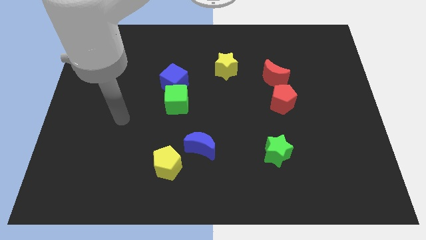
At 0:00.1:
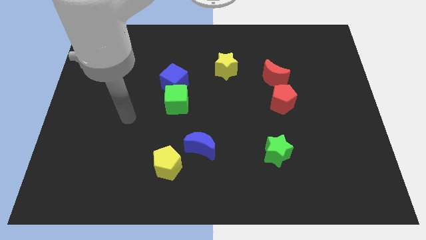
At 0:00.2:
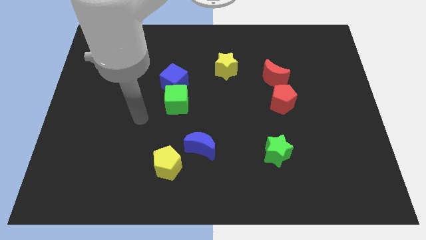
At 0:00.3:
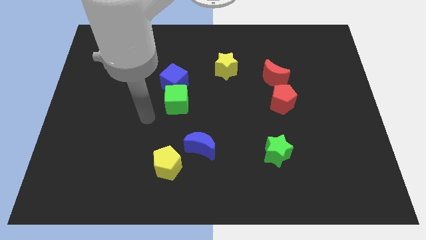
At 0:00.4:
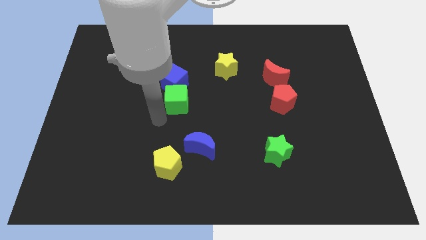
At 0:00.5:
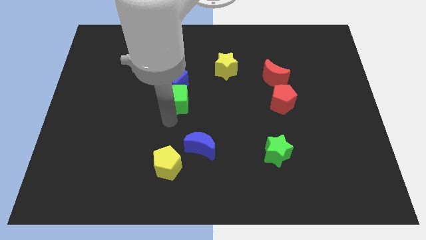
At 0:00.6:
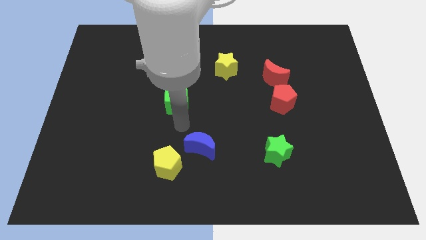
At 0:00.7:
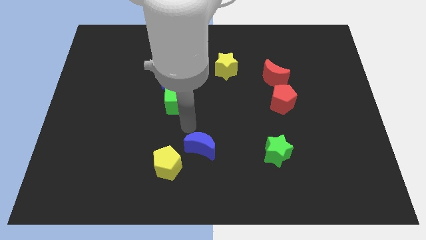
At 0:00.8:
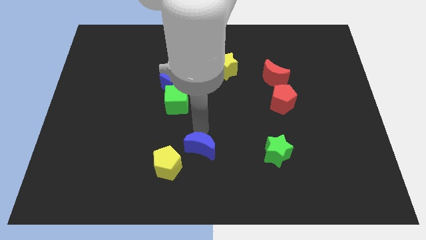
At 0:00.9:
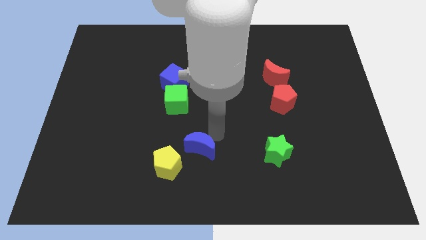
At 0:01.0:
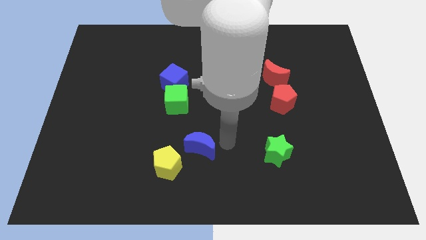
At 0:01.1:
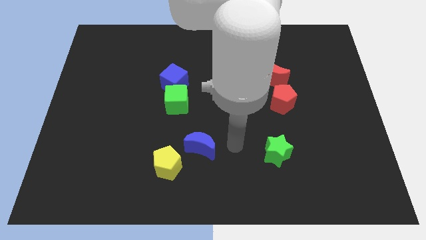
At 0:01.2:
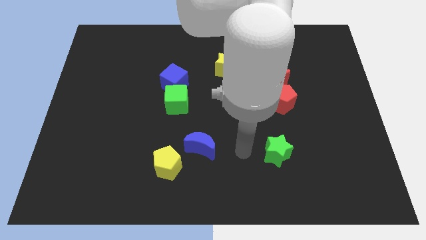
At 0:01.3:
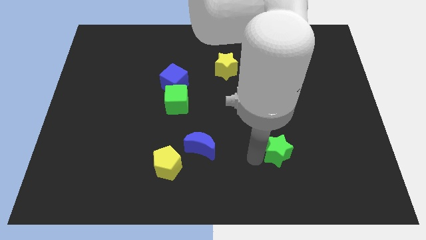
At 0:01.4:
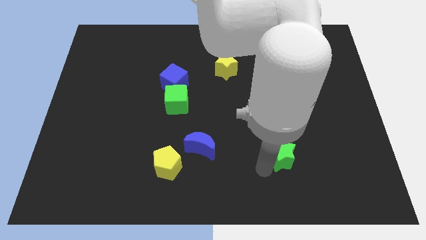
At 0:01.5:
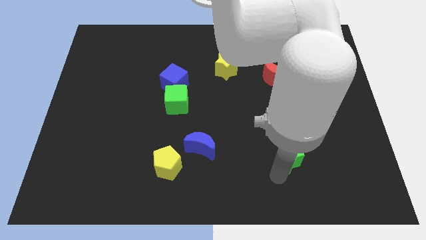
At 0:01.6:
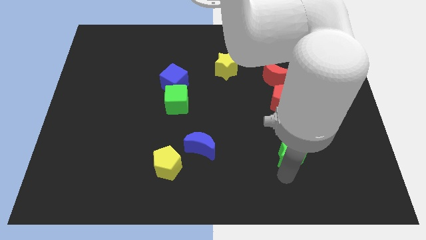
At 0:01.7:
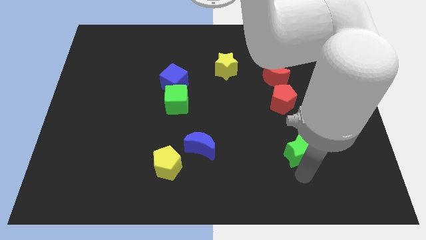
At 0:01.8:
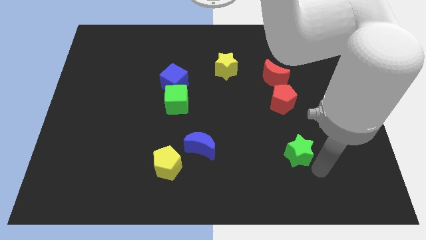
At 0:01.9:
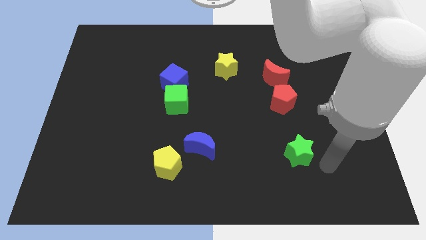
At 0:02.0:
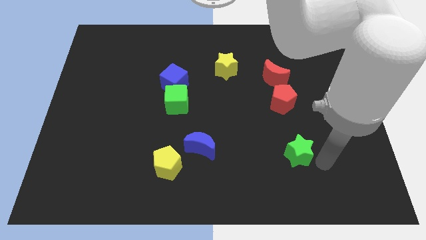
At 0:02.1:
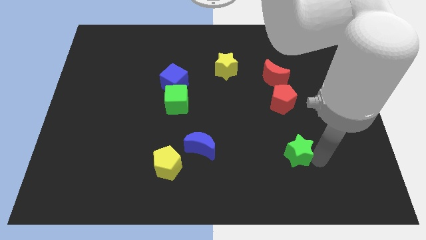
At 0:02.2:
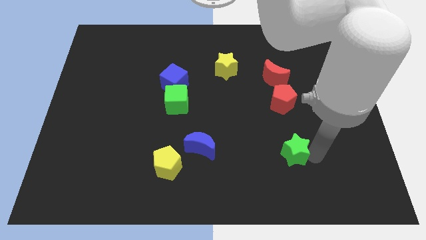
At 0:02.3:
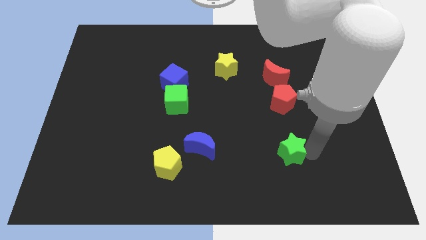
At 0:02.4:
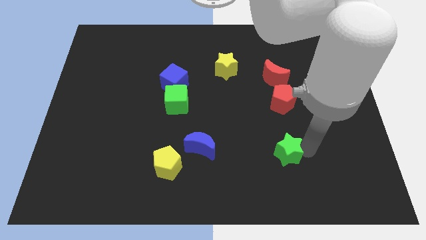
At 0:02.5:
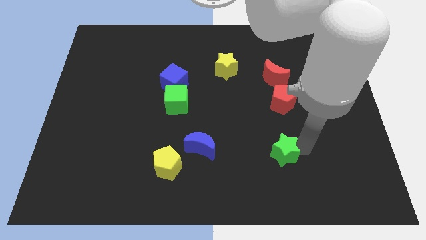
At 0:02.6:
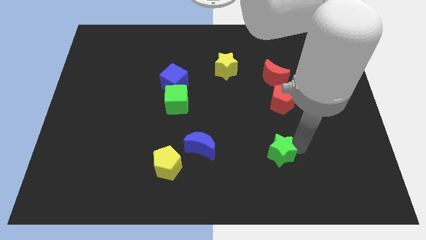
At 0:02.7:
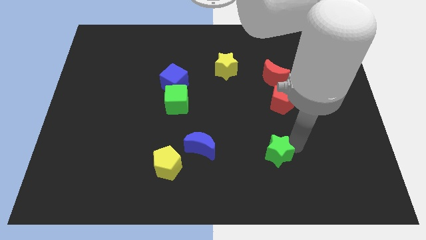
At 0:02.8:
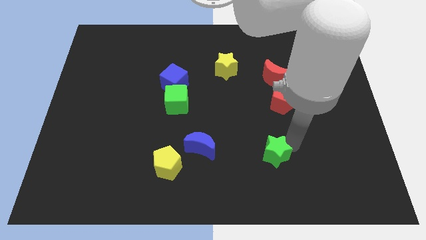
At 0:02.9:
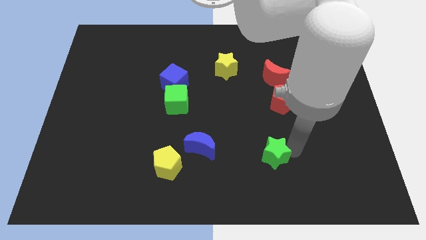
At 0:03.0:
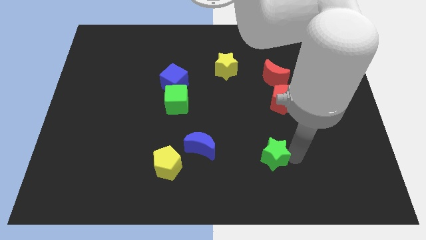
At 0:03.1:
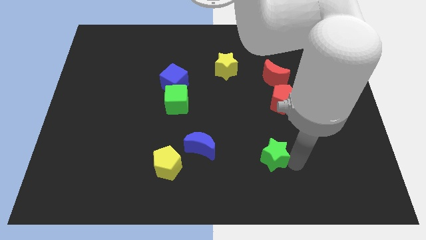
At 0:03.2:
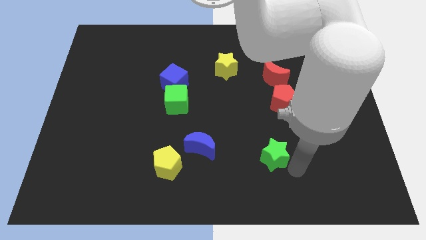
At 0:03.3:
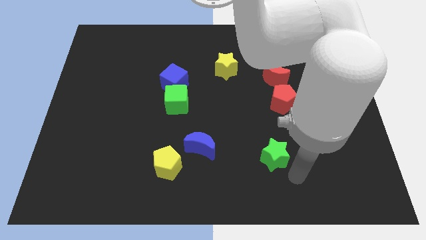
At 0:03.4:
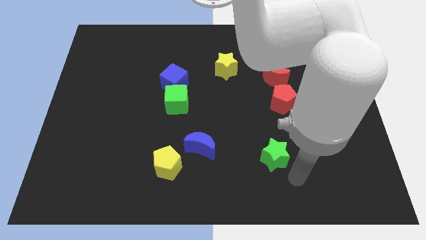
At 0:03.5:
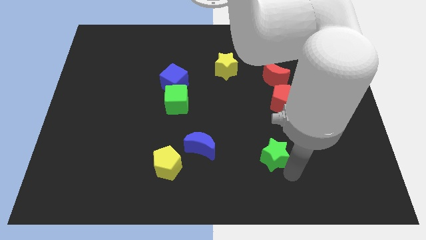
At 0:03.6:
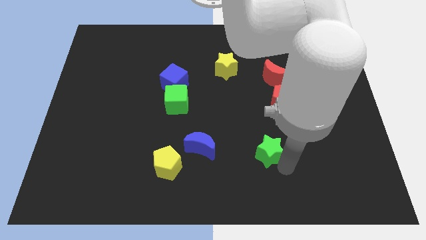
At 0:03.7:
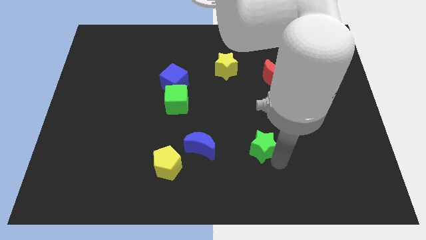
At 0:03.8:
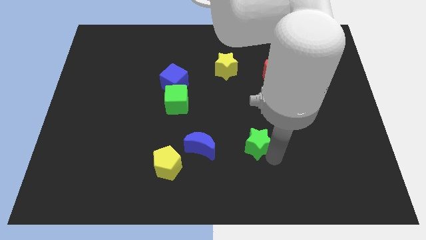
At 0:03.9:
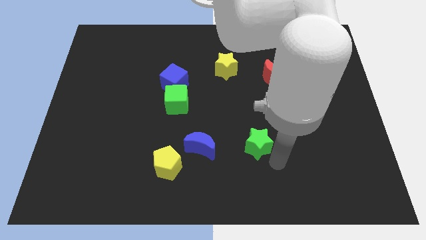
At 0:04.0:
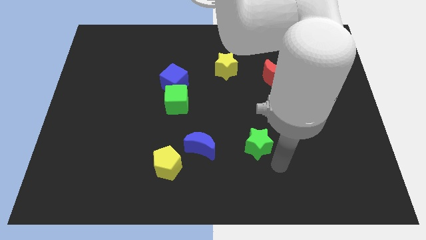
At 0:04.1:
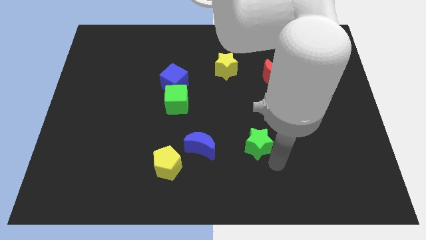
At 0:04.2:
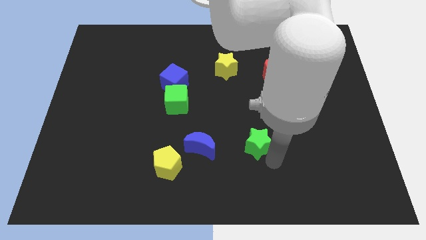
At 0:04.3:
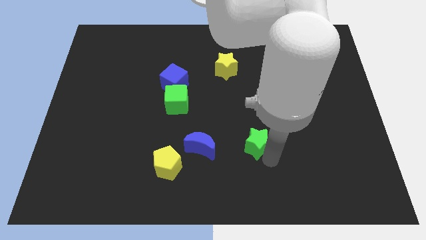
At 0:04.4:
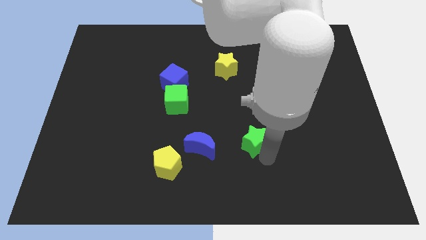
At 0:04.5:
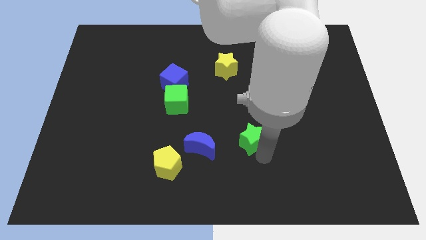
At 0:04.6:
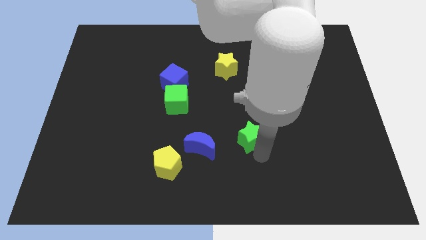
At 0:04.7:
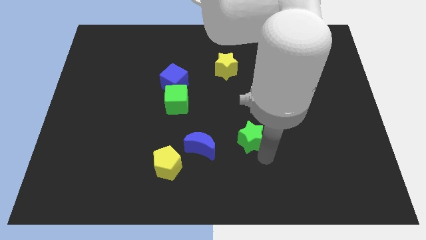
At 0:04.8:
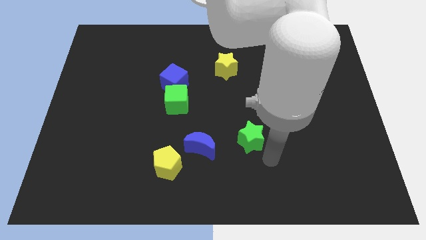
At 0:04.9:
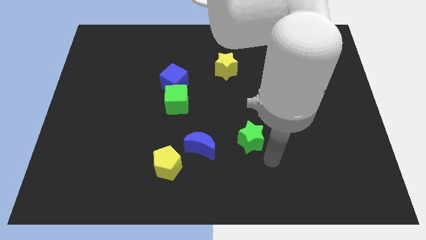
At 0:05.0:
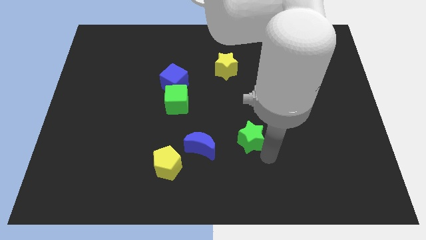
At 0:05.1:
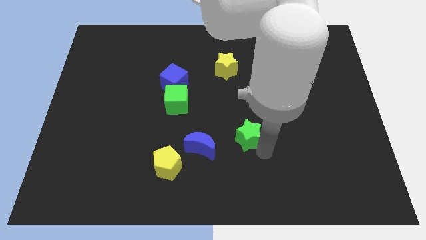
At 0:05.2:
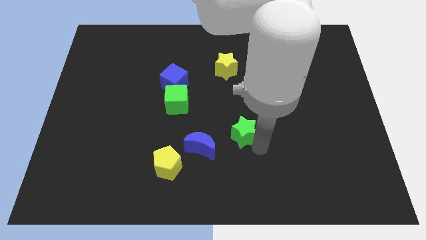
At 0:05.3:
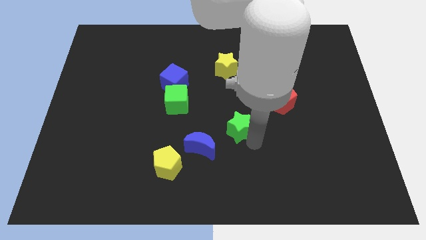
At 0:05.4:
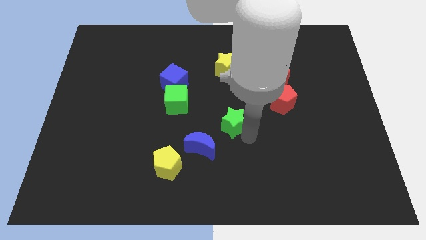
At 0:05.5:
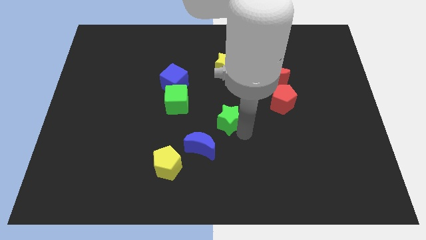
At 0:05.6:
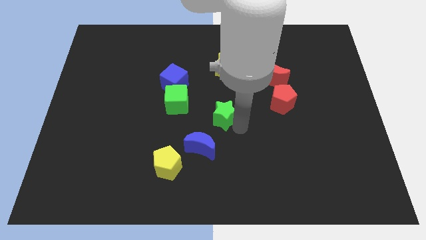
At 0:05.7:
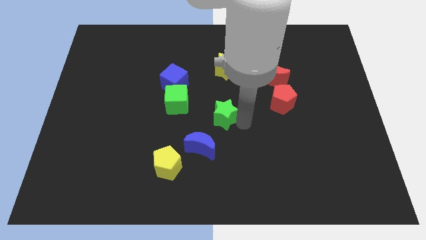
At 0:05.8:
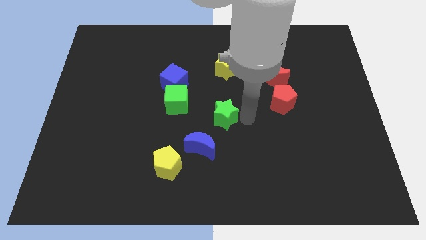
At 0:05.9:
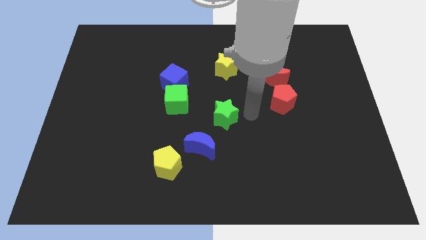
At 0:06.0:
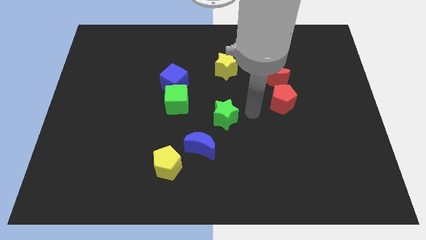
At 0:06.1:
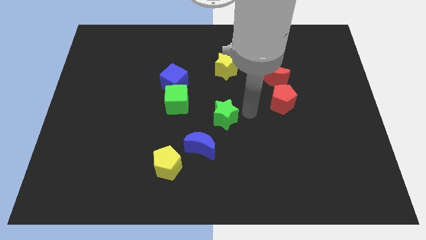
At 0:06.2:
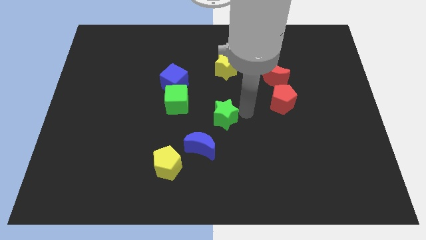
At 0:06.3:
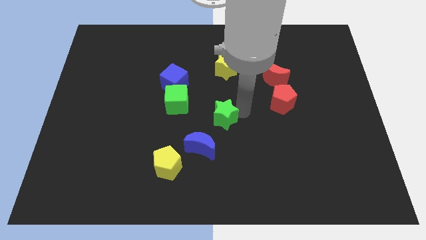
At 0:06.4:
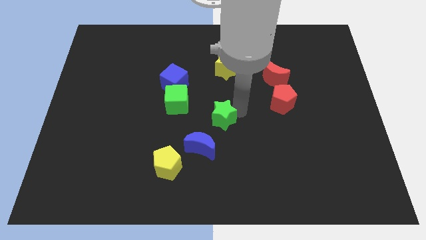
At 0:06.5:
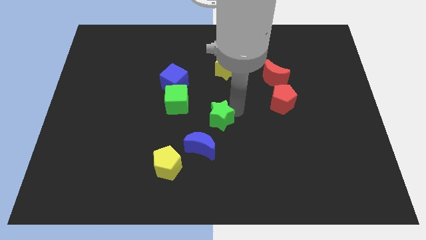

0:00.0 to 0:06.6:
push the green star to the bottom right side of the green cube

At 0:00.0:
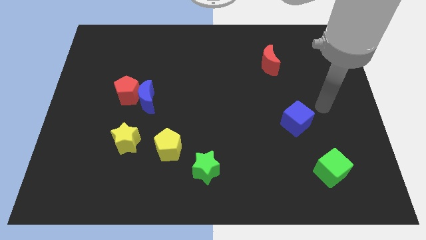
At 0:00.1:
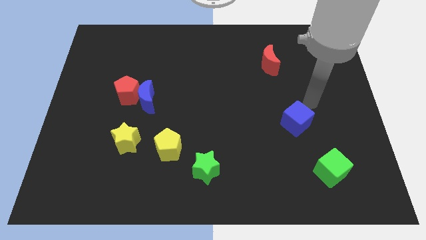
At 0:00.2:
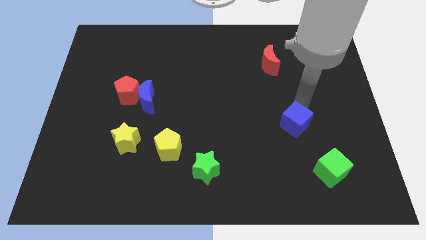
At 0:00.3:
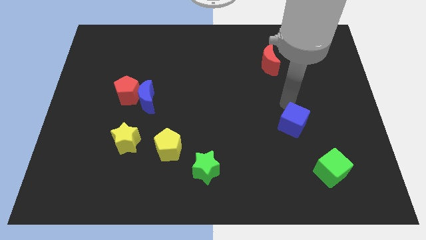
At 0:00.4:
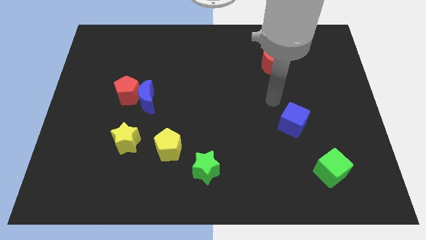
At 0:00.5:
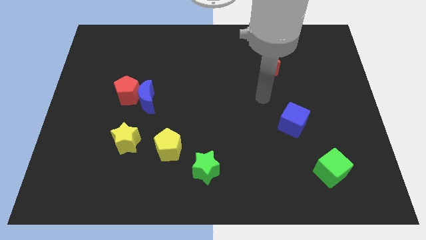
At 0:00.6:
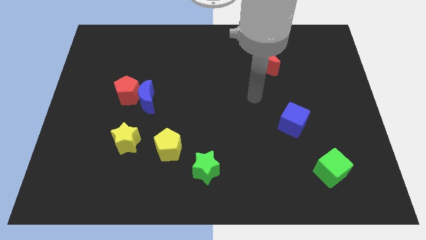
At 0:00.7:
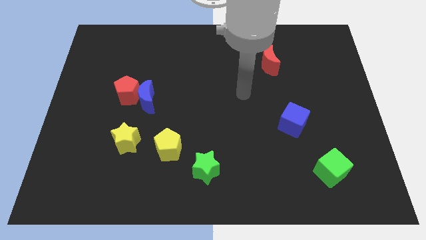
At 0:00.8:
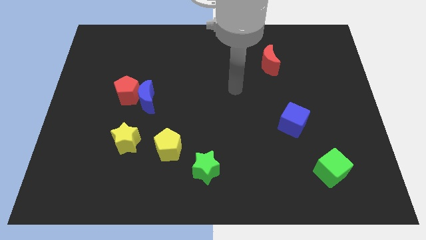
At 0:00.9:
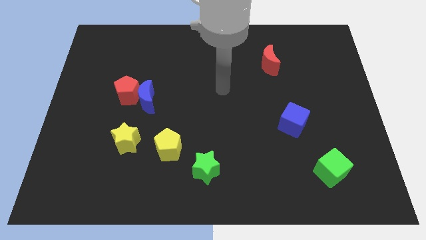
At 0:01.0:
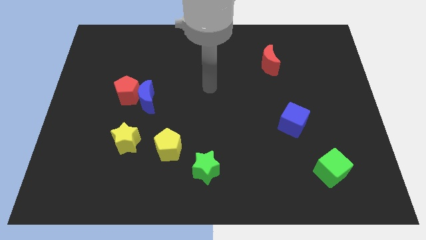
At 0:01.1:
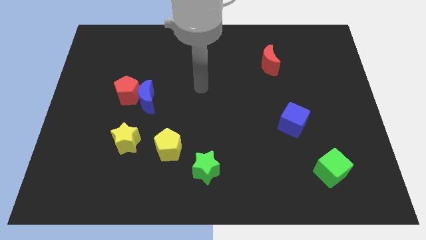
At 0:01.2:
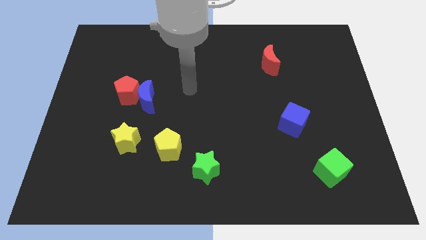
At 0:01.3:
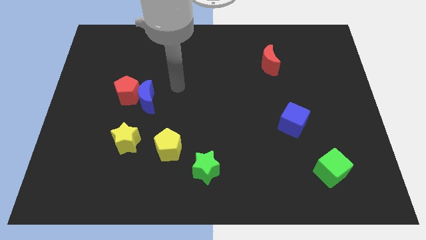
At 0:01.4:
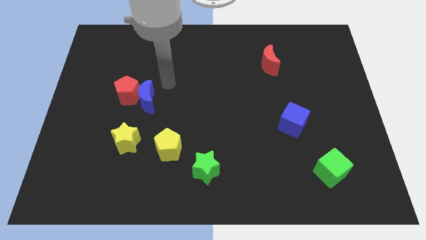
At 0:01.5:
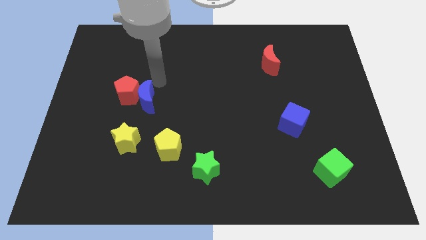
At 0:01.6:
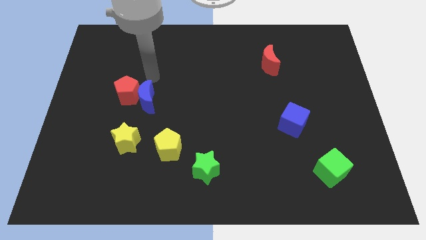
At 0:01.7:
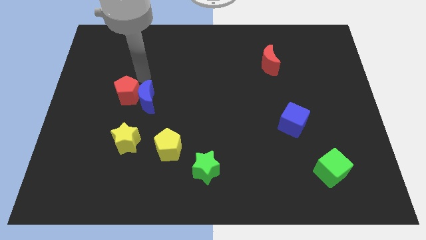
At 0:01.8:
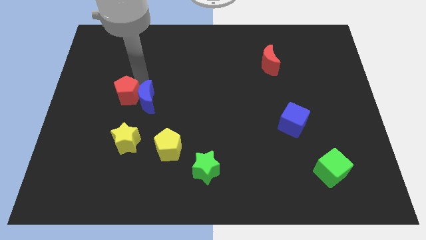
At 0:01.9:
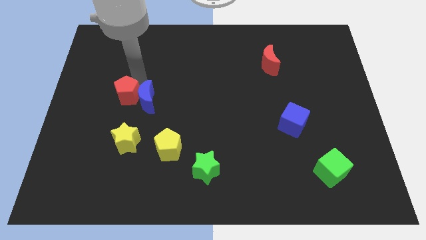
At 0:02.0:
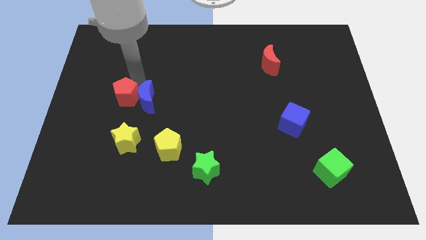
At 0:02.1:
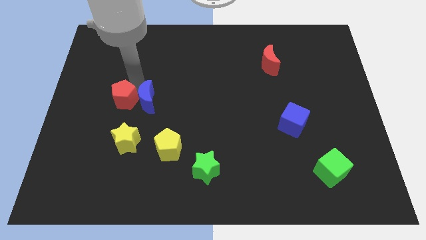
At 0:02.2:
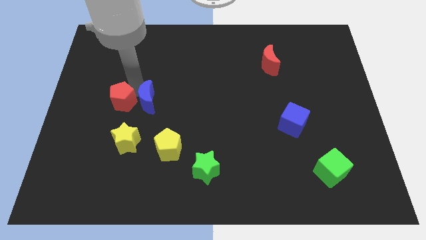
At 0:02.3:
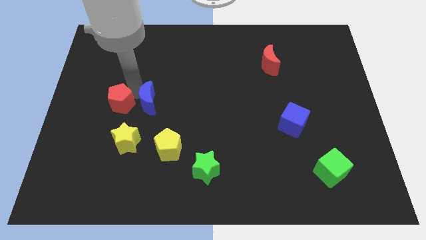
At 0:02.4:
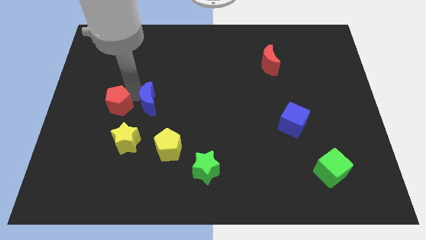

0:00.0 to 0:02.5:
put the red pentagon to the top left side of the yellow star
